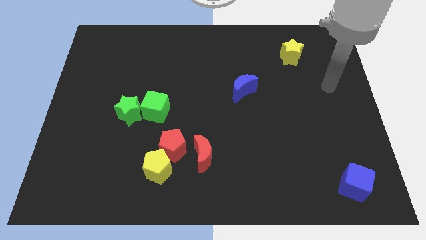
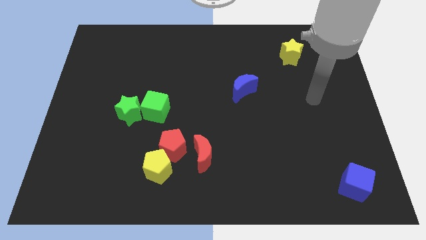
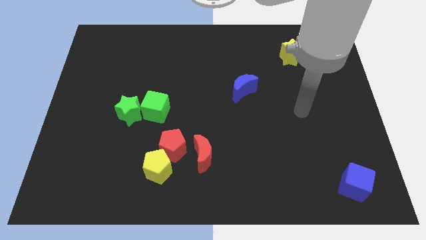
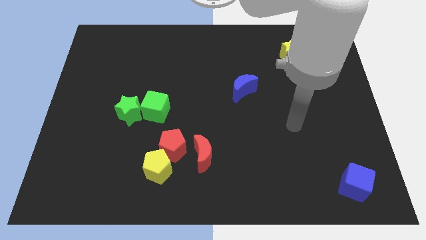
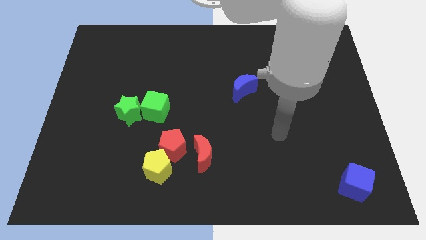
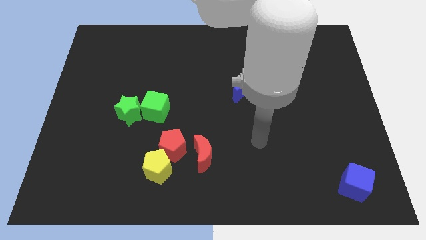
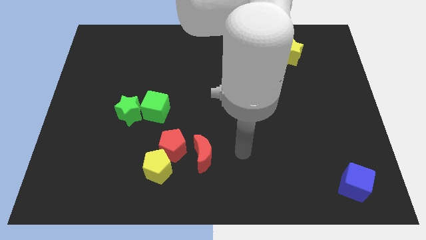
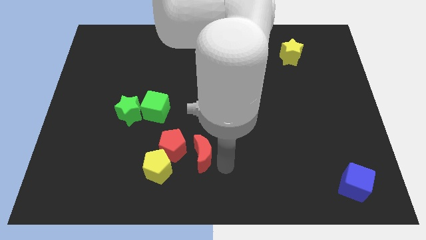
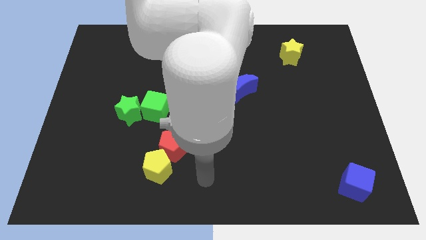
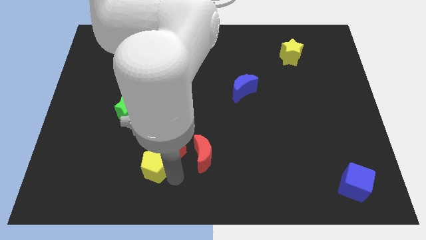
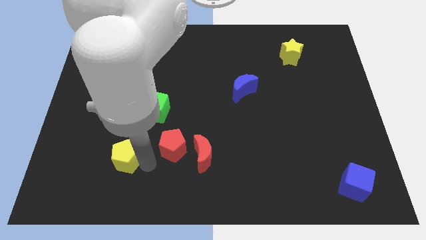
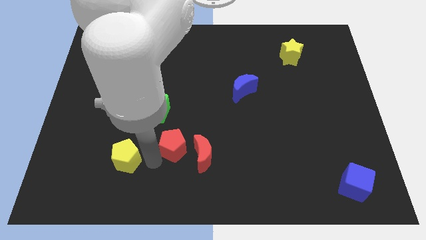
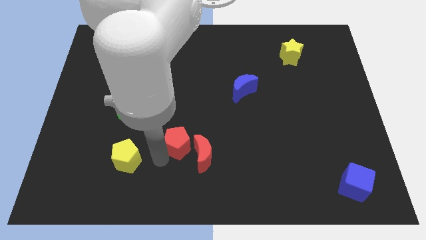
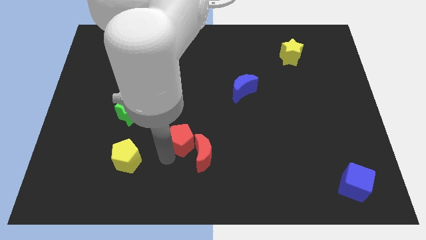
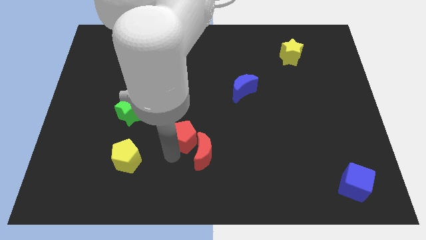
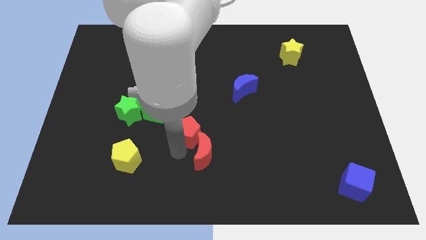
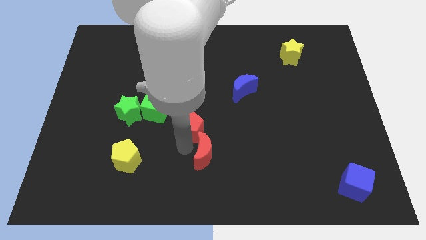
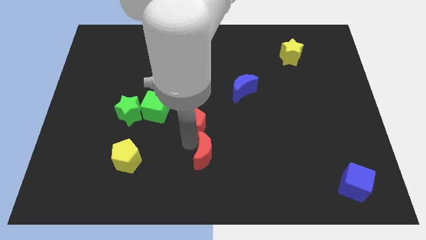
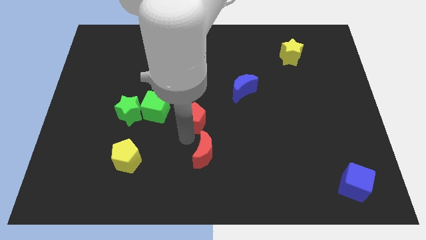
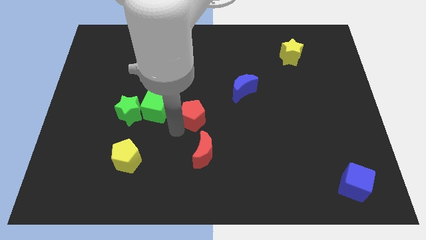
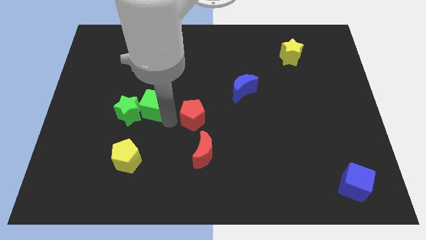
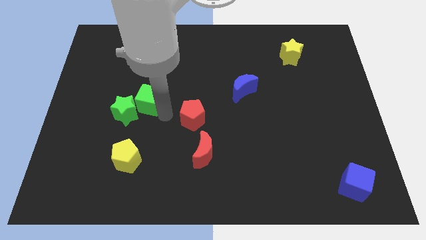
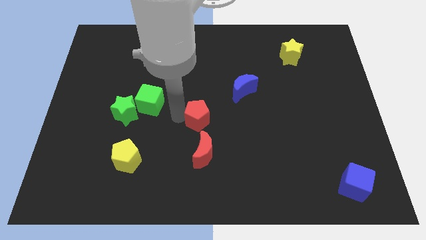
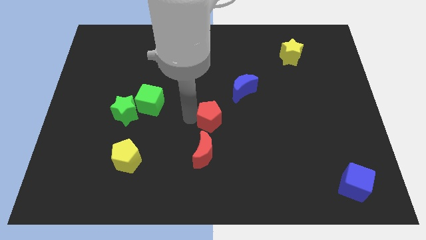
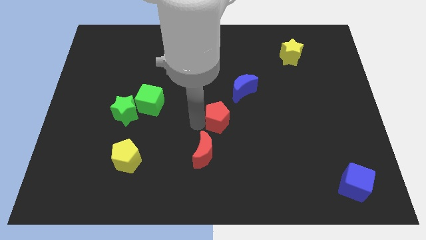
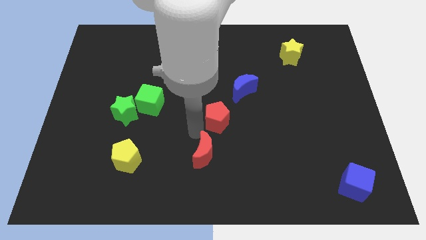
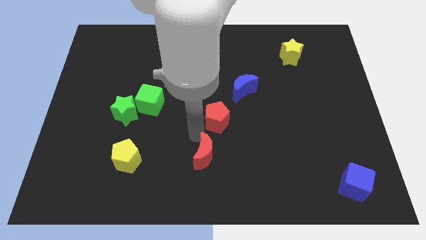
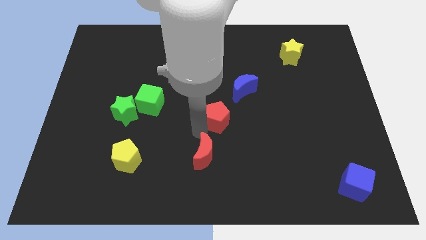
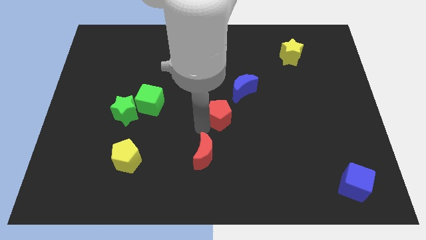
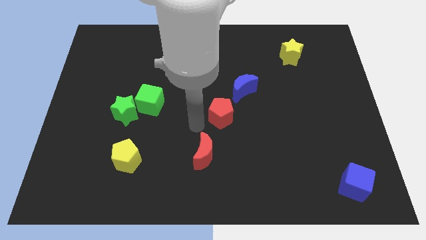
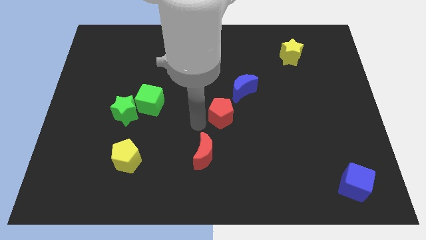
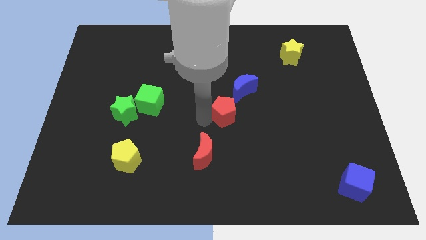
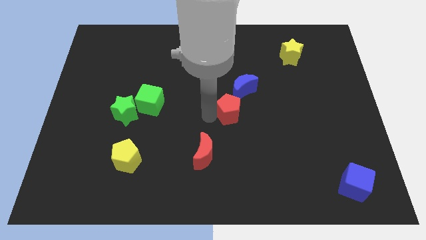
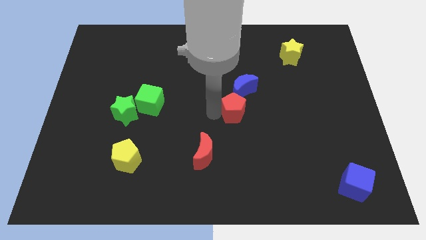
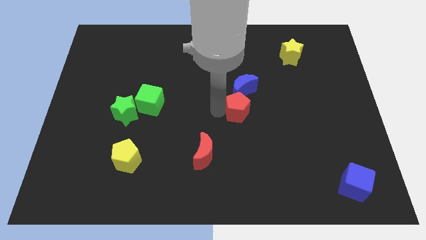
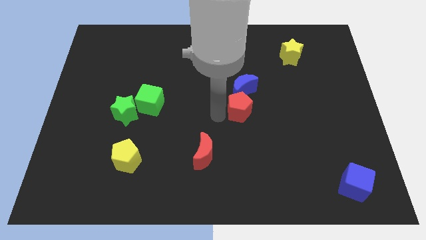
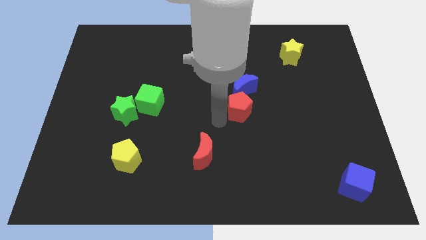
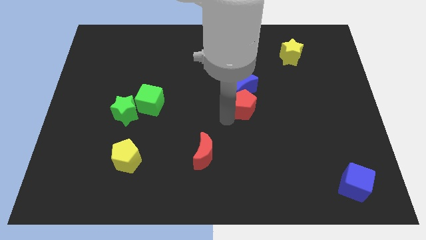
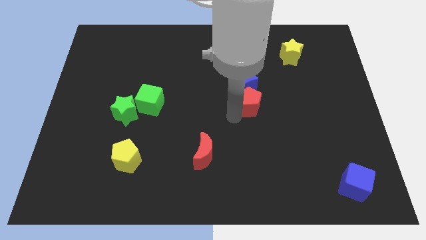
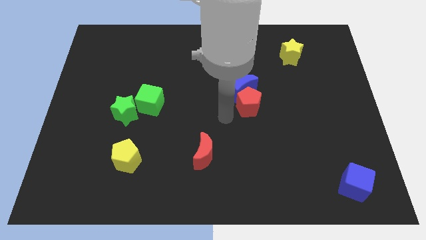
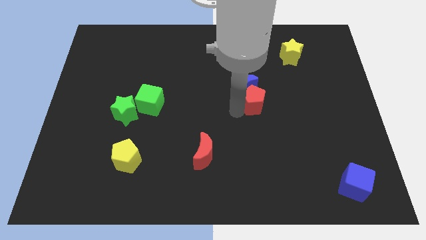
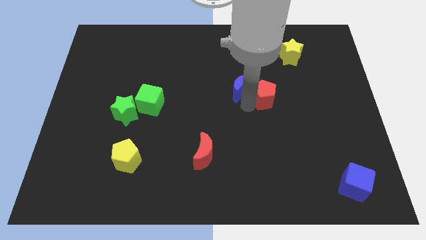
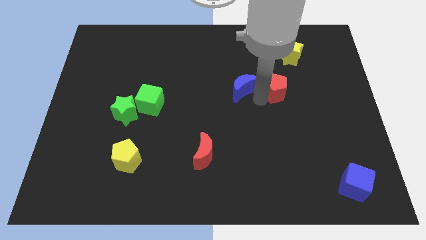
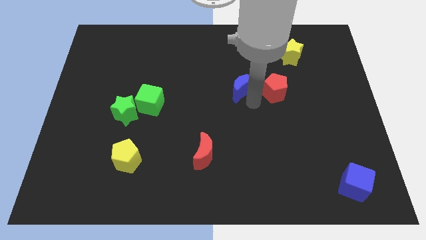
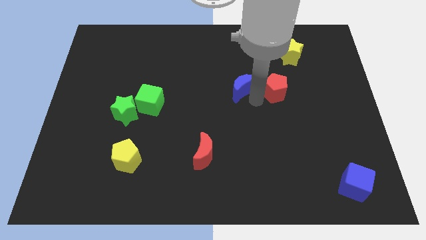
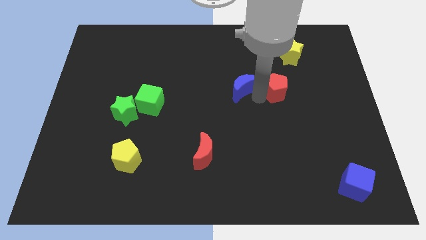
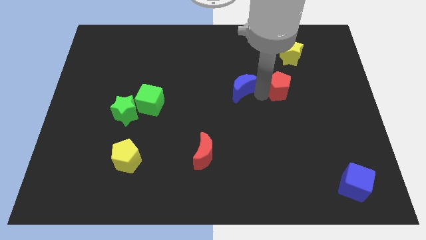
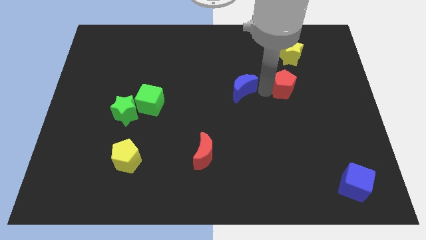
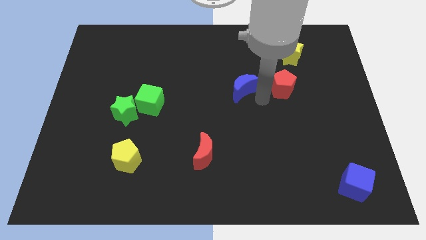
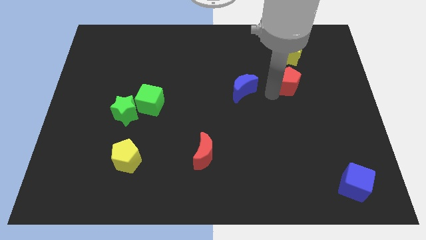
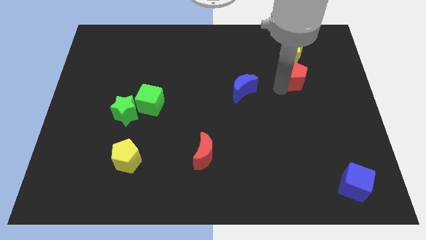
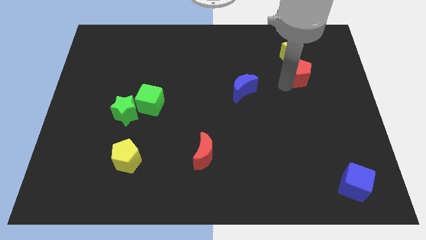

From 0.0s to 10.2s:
move the red pentagon to the bottom right side of the yellow star

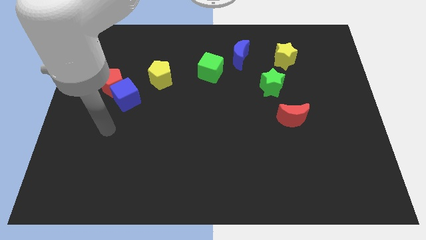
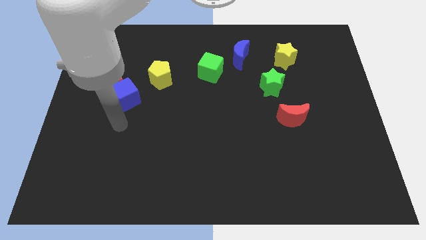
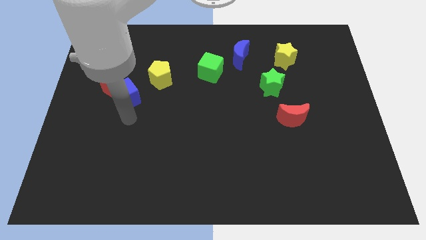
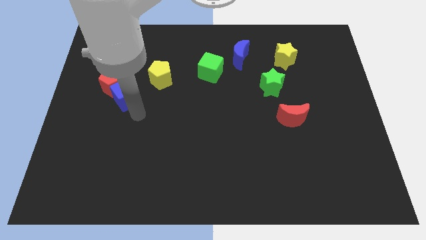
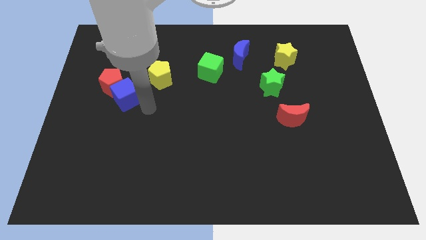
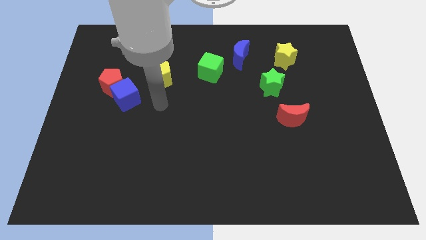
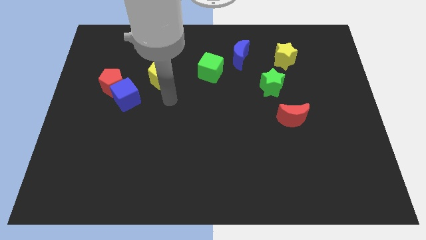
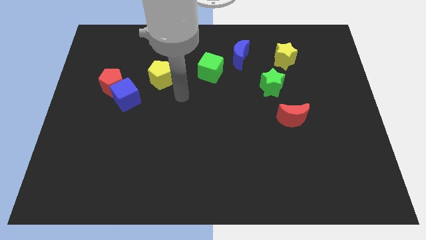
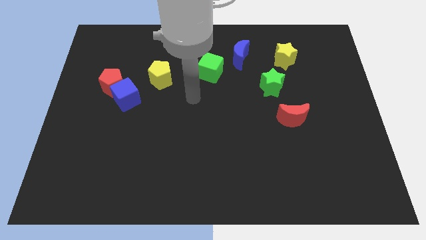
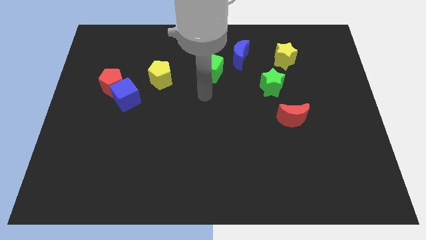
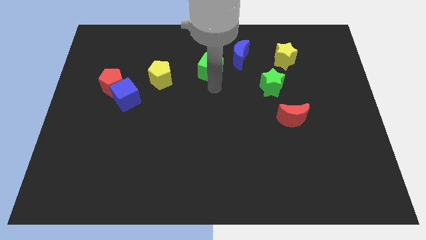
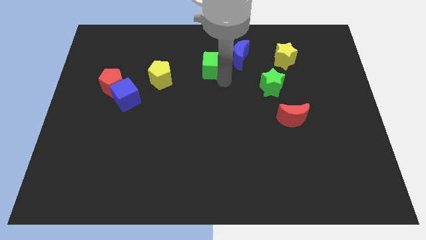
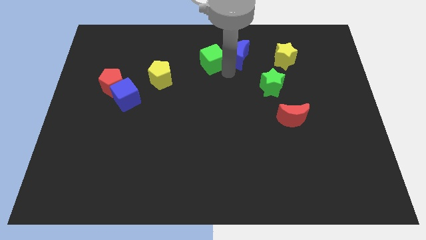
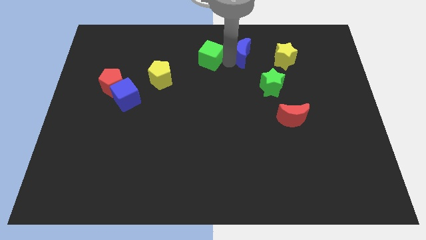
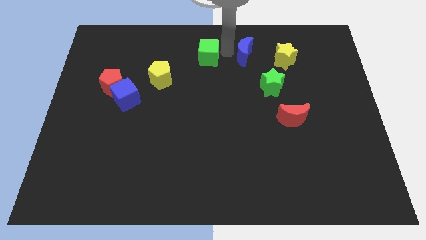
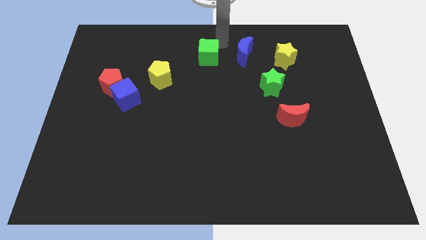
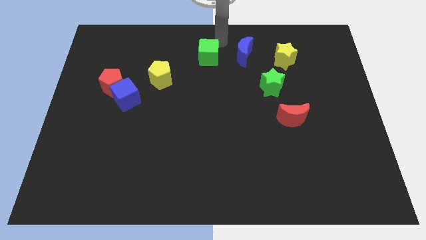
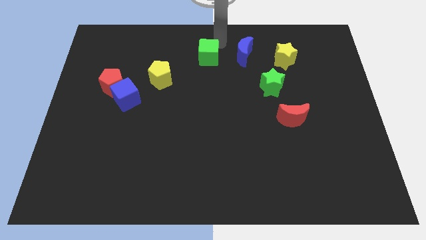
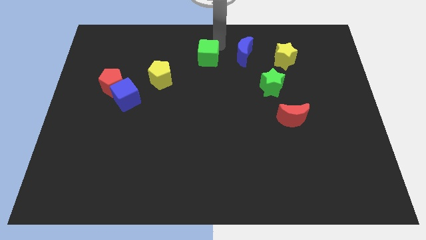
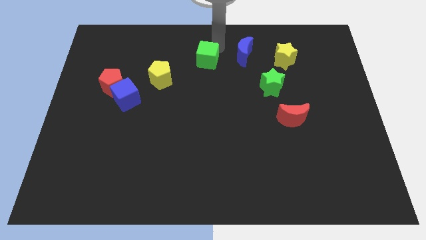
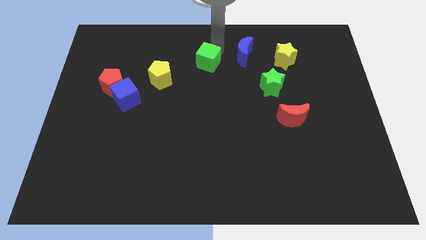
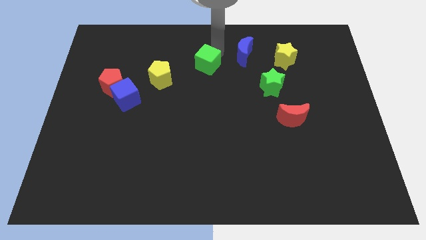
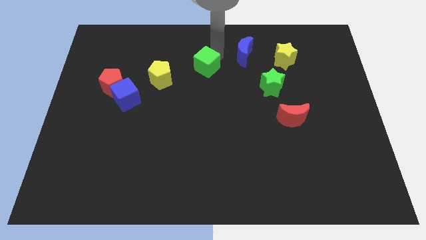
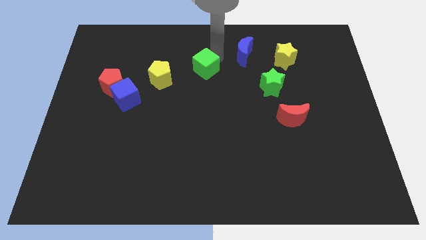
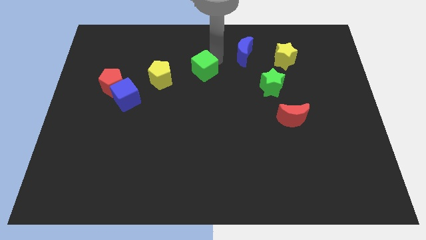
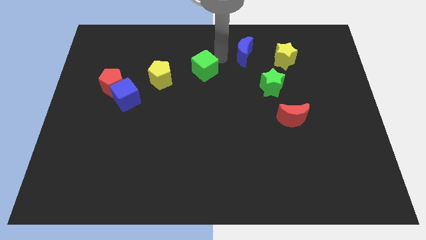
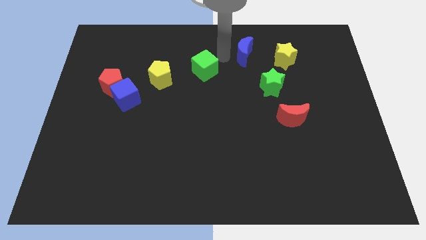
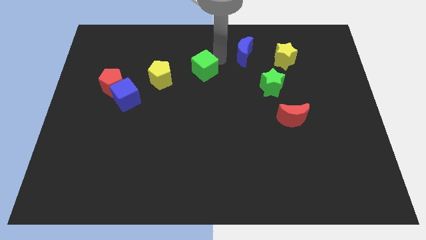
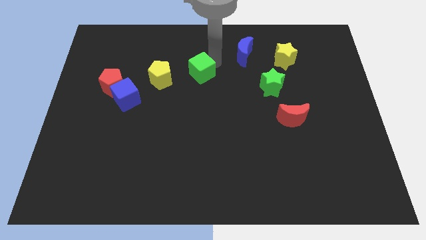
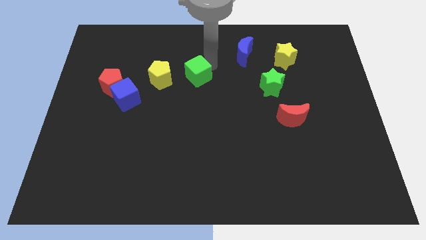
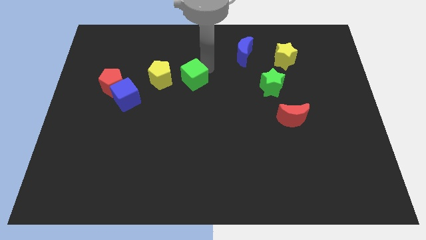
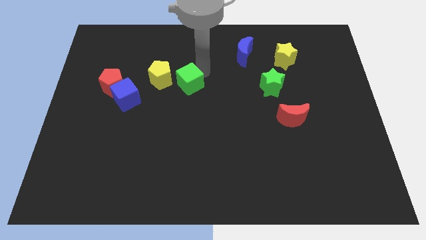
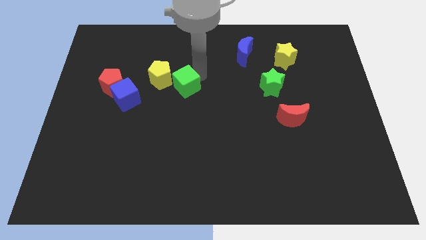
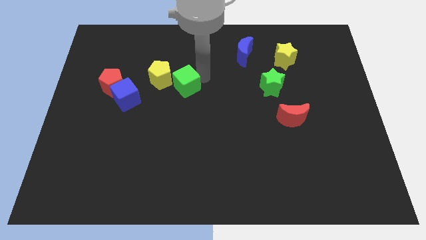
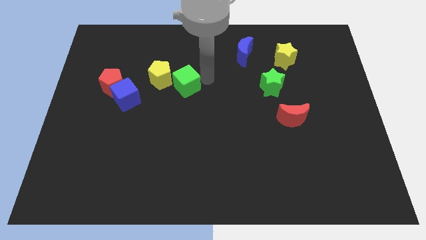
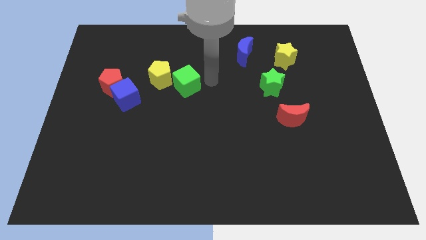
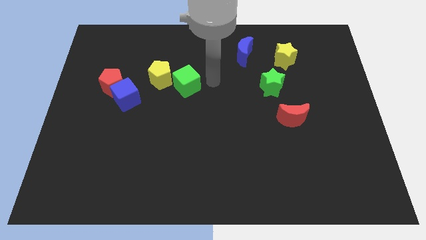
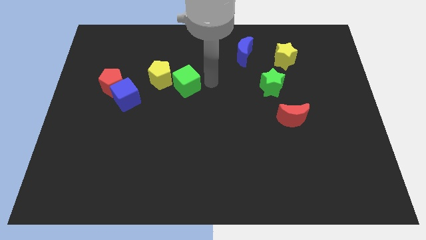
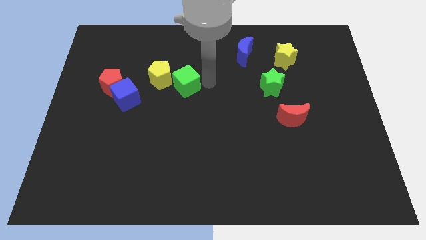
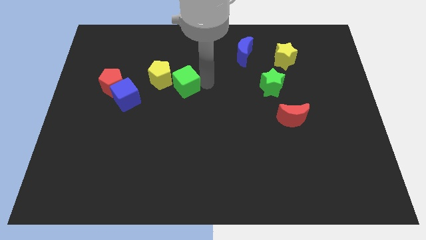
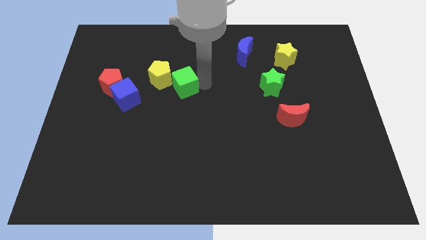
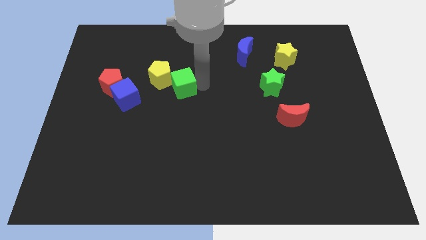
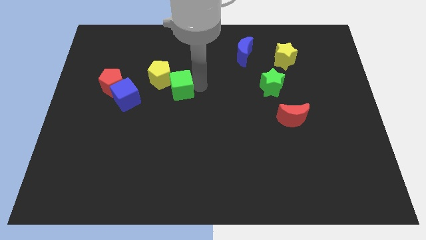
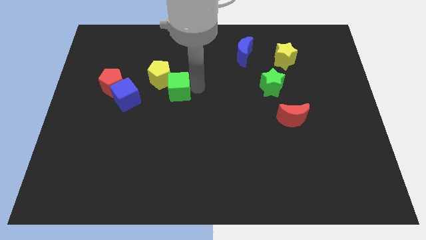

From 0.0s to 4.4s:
move the green cube to the right of the red pentagon
